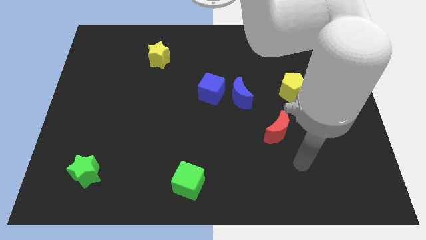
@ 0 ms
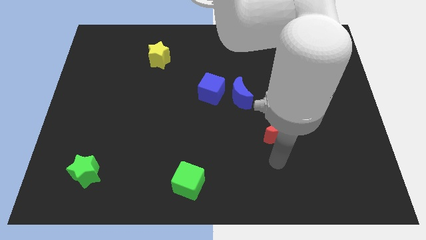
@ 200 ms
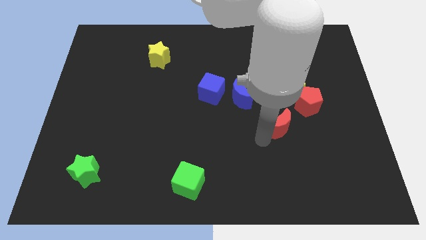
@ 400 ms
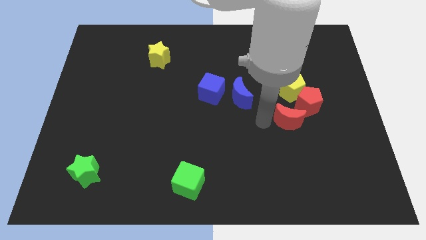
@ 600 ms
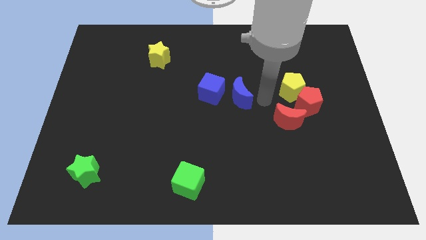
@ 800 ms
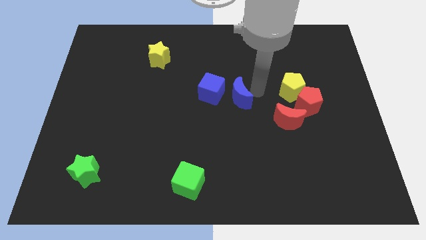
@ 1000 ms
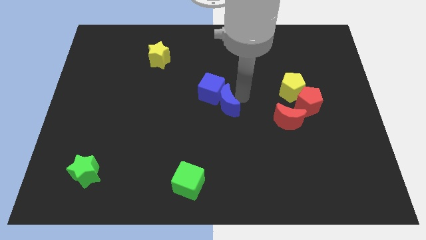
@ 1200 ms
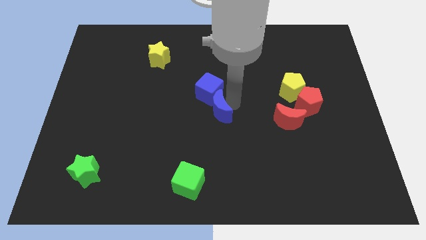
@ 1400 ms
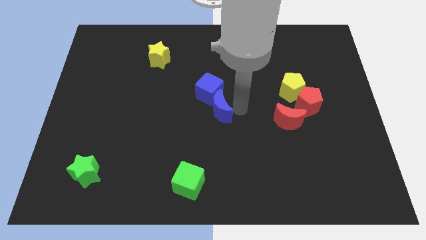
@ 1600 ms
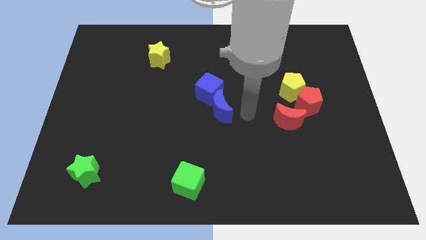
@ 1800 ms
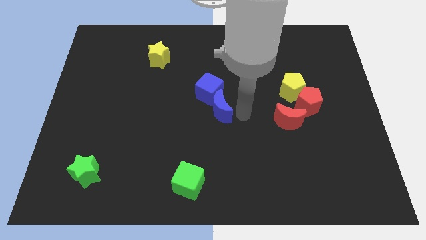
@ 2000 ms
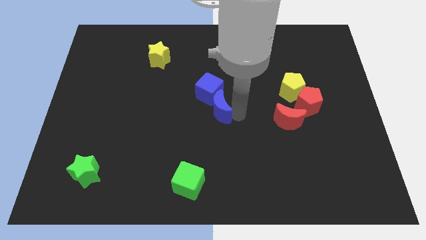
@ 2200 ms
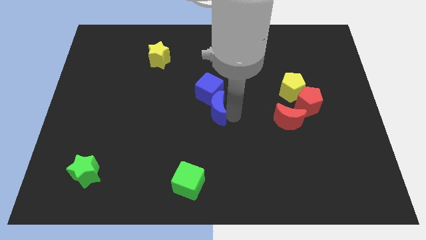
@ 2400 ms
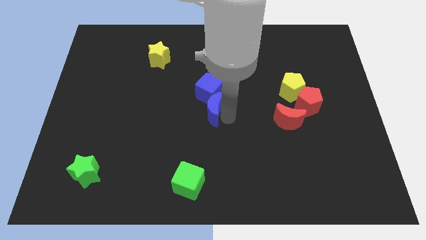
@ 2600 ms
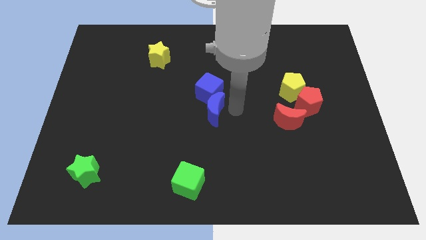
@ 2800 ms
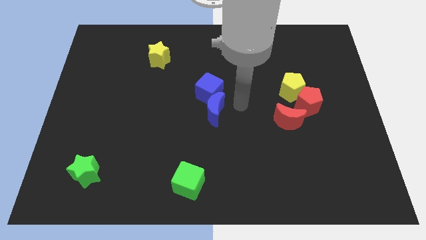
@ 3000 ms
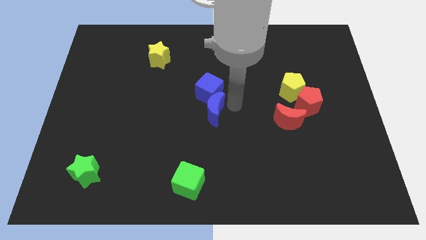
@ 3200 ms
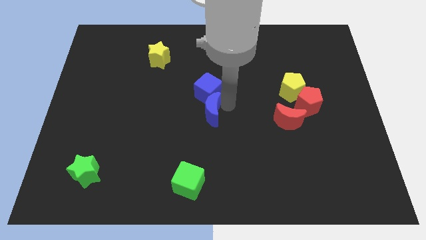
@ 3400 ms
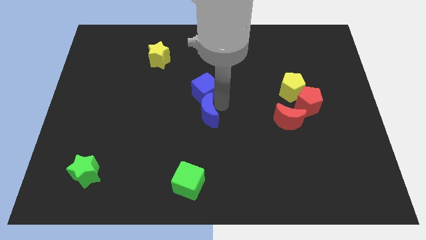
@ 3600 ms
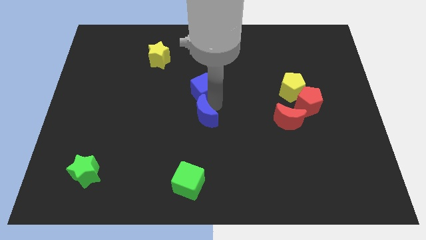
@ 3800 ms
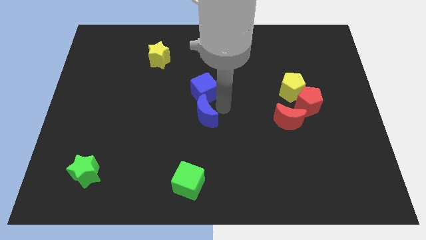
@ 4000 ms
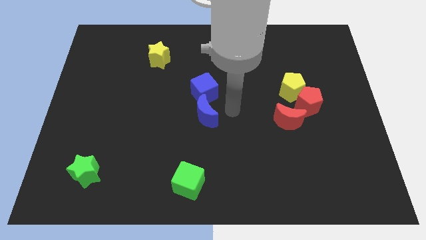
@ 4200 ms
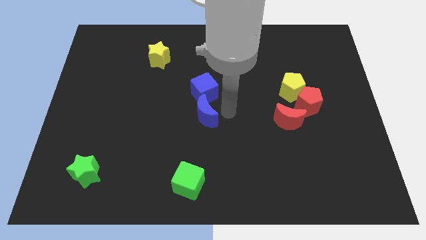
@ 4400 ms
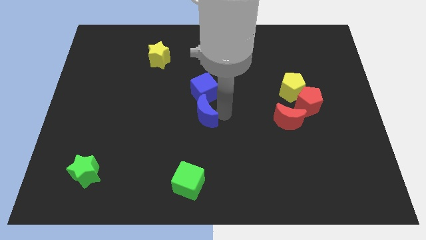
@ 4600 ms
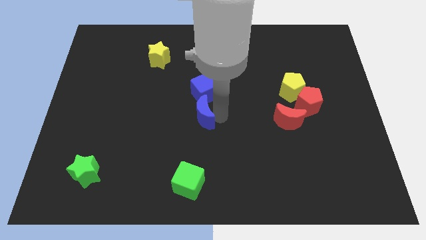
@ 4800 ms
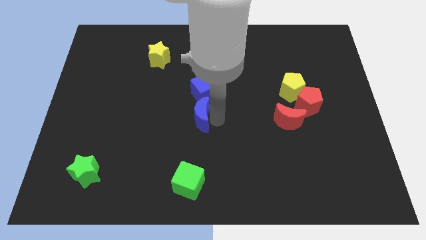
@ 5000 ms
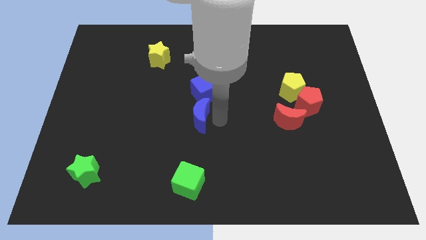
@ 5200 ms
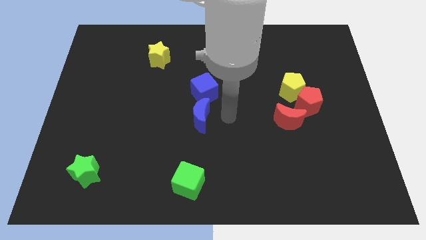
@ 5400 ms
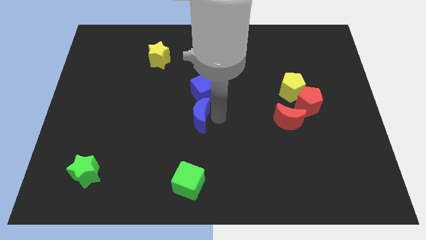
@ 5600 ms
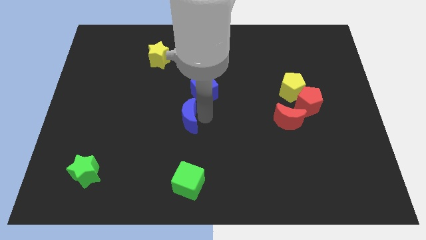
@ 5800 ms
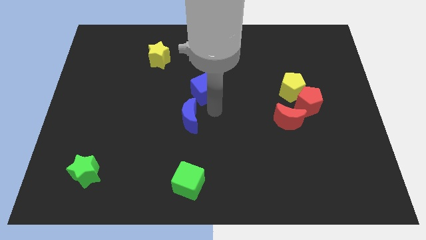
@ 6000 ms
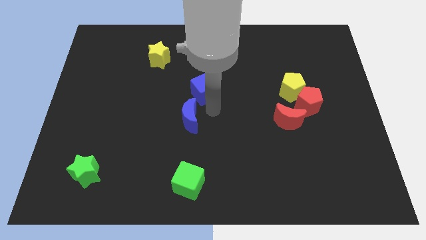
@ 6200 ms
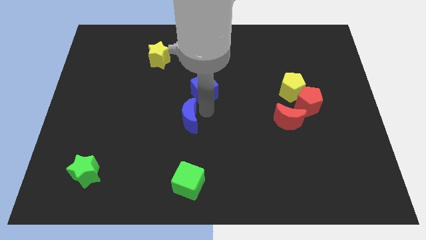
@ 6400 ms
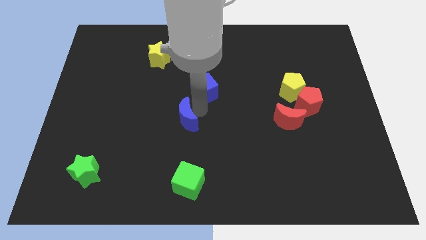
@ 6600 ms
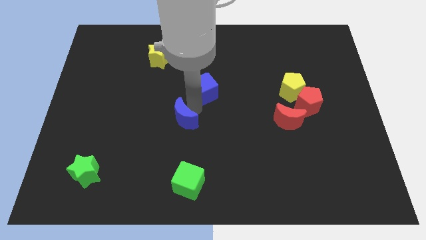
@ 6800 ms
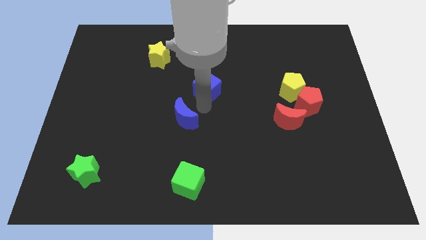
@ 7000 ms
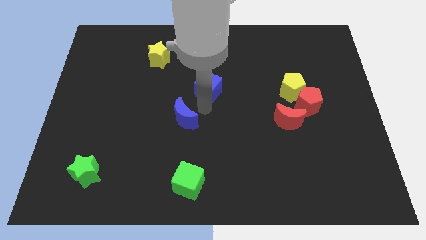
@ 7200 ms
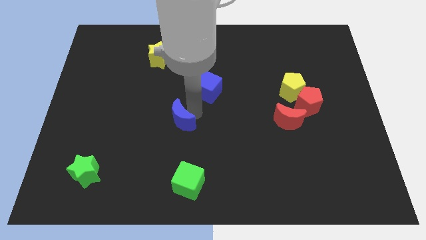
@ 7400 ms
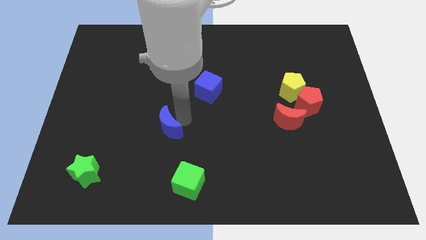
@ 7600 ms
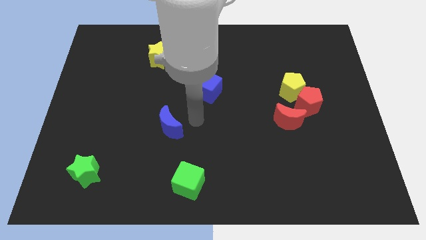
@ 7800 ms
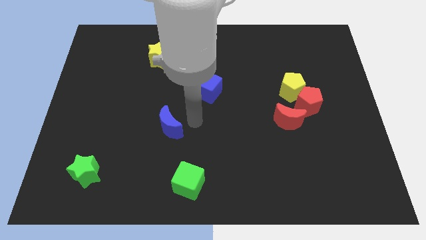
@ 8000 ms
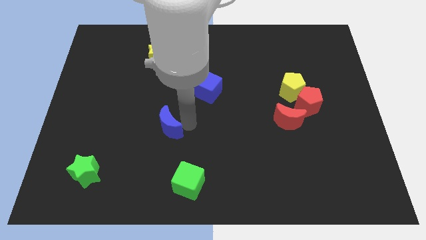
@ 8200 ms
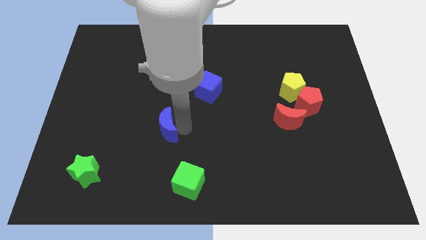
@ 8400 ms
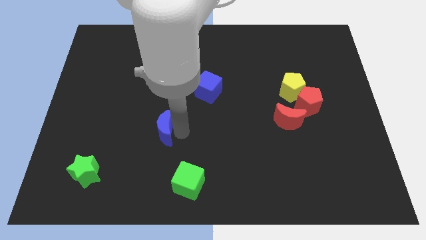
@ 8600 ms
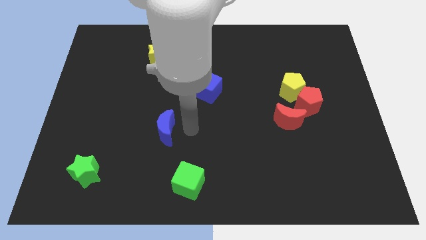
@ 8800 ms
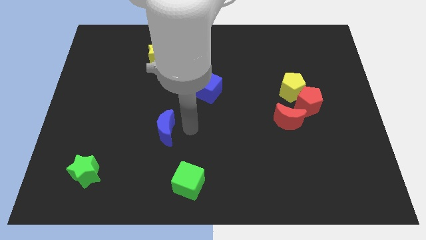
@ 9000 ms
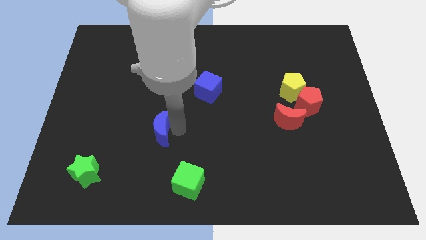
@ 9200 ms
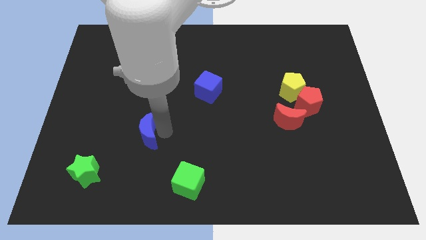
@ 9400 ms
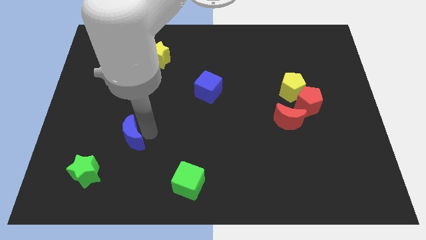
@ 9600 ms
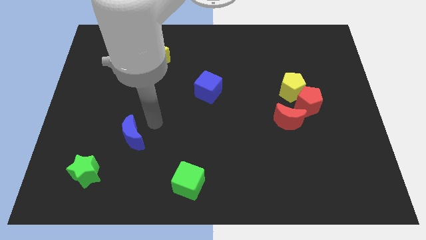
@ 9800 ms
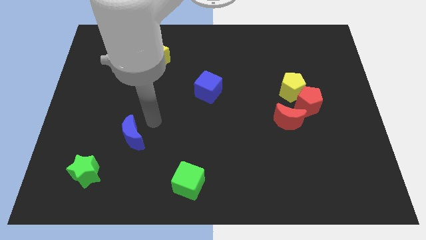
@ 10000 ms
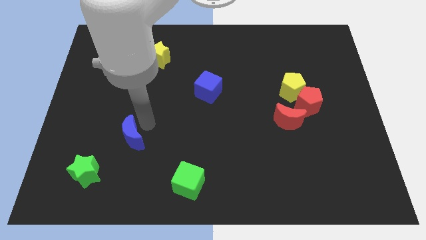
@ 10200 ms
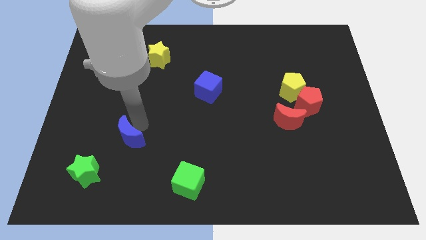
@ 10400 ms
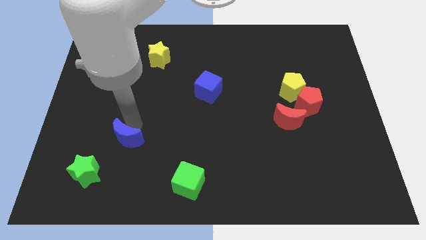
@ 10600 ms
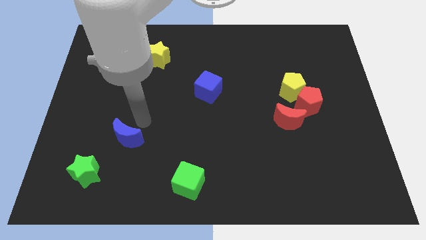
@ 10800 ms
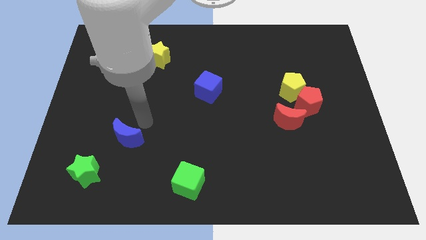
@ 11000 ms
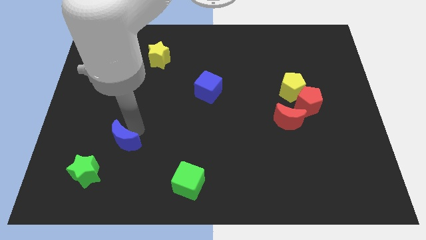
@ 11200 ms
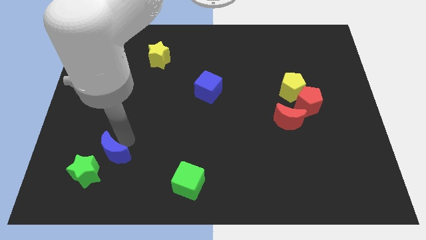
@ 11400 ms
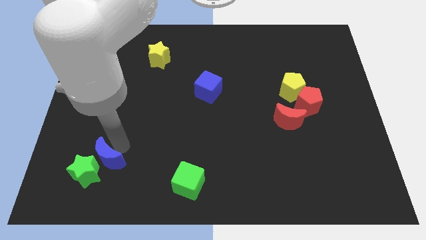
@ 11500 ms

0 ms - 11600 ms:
push the blue moon towards the green star

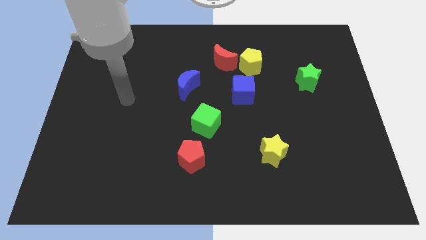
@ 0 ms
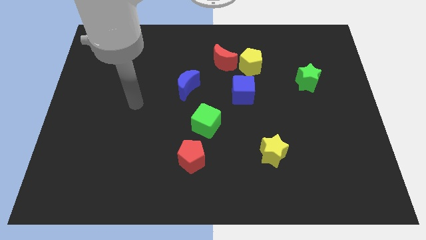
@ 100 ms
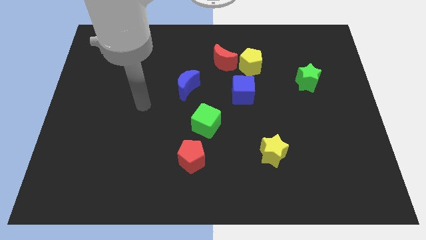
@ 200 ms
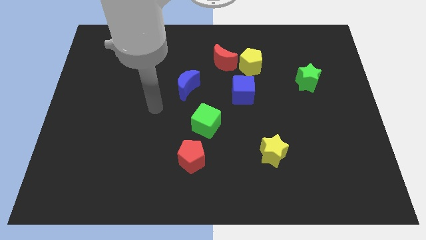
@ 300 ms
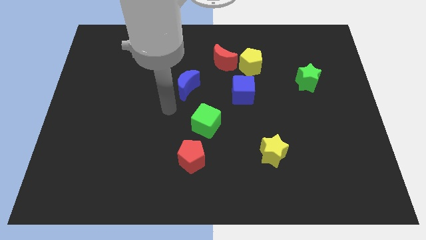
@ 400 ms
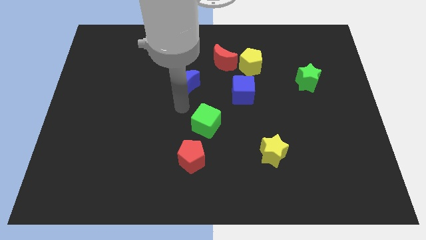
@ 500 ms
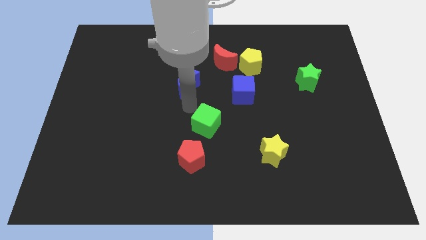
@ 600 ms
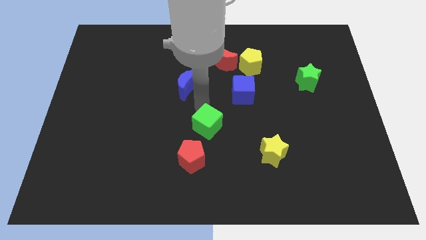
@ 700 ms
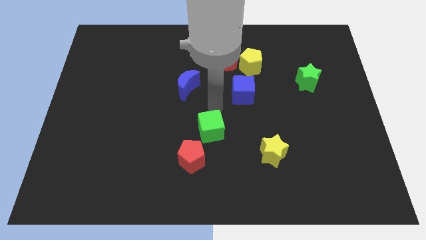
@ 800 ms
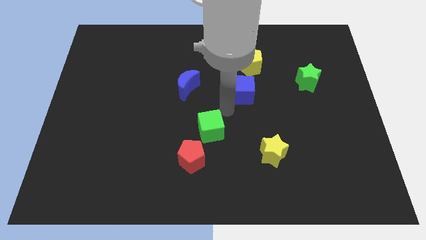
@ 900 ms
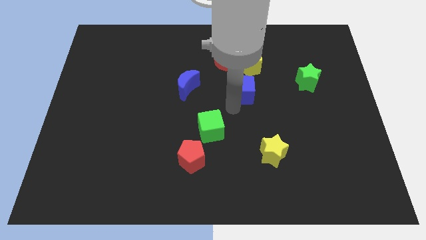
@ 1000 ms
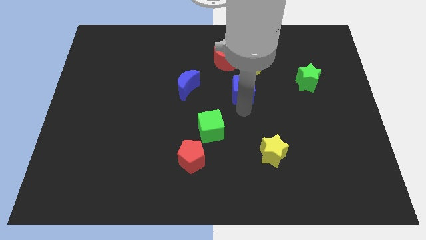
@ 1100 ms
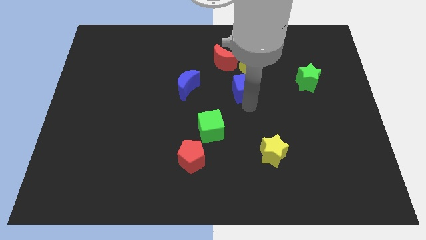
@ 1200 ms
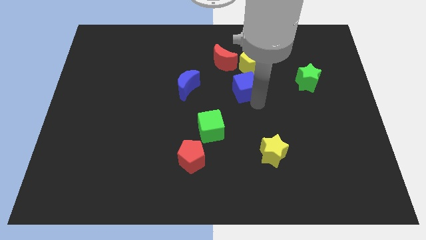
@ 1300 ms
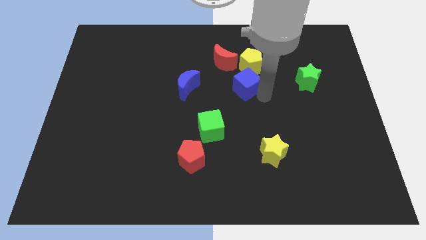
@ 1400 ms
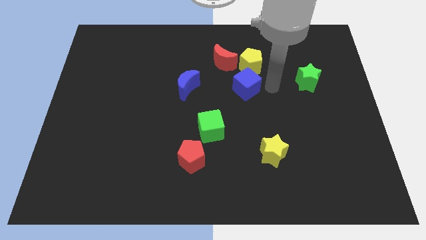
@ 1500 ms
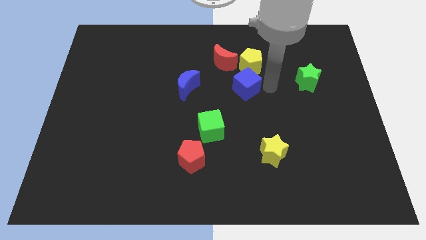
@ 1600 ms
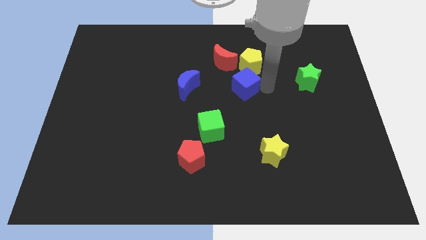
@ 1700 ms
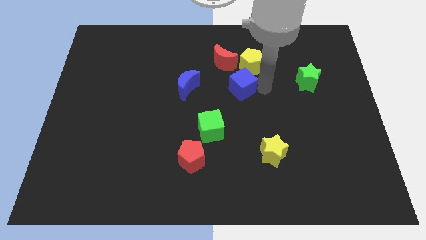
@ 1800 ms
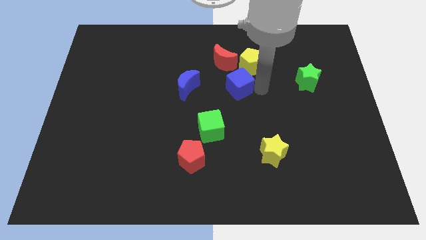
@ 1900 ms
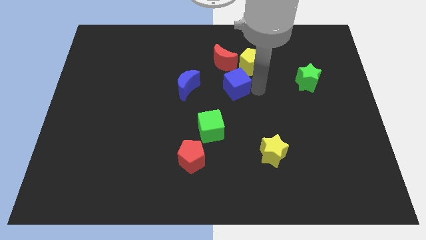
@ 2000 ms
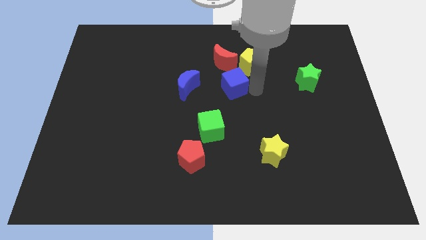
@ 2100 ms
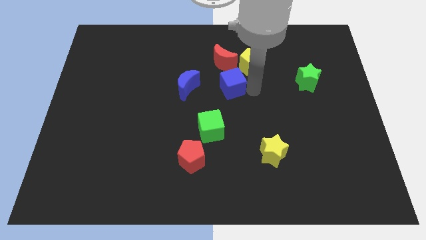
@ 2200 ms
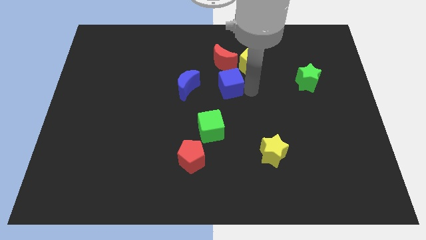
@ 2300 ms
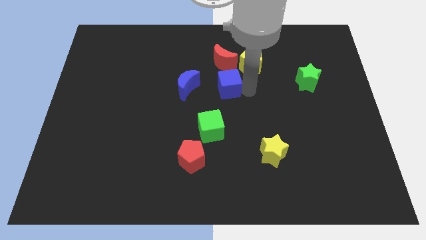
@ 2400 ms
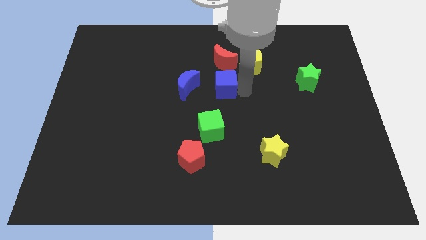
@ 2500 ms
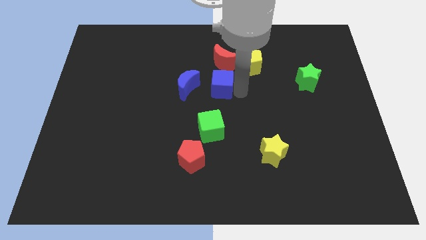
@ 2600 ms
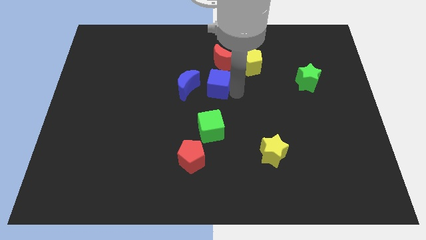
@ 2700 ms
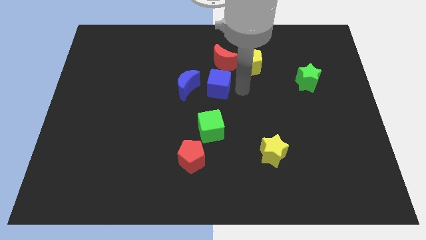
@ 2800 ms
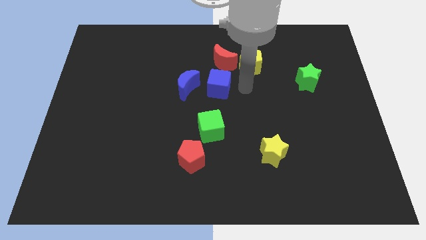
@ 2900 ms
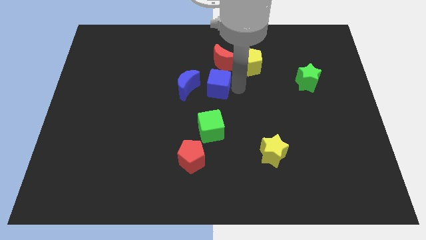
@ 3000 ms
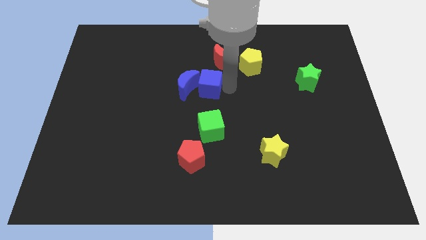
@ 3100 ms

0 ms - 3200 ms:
slide the blue cube close to the blue moon
